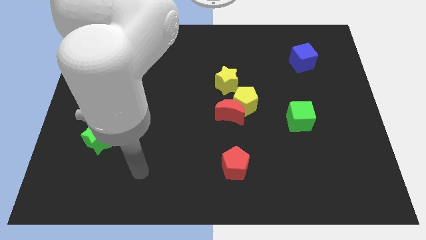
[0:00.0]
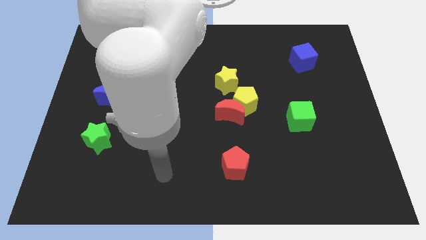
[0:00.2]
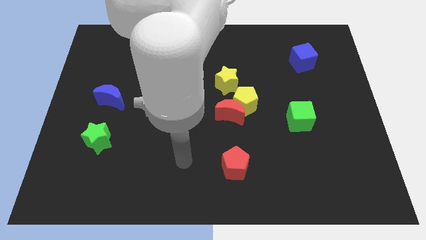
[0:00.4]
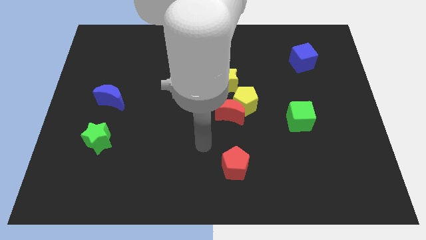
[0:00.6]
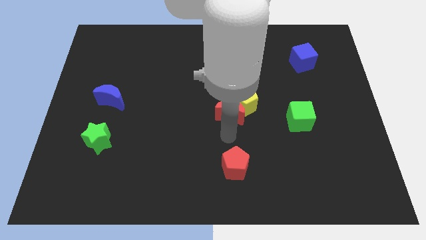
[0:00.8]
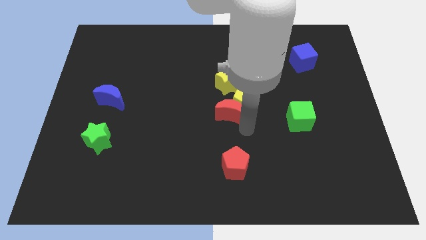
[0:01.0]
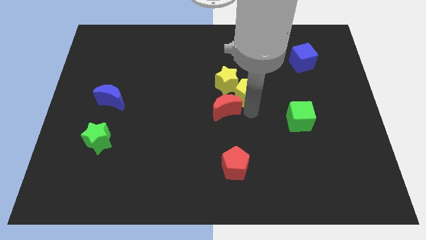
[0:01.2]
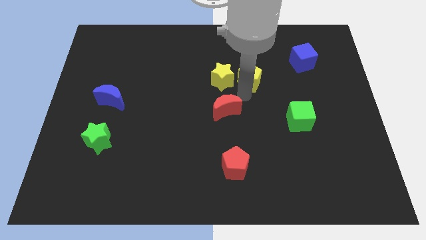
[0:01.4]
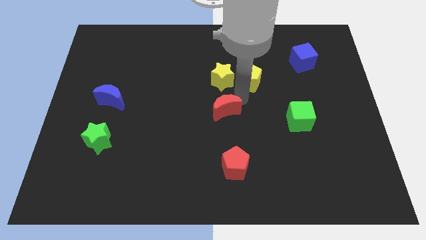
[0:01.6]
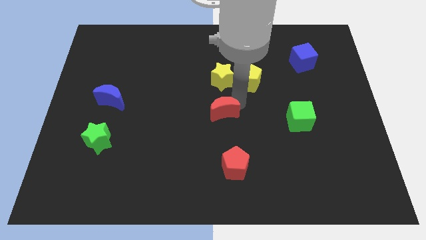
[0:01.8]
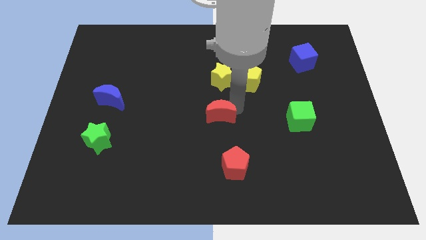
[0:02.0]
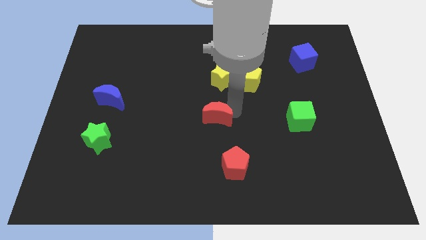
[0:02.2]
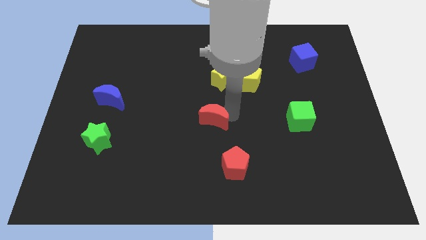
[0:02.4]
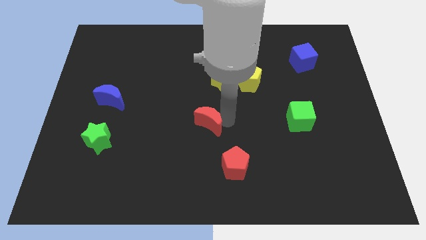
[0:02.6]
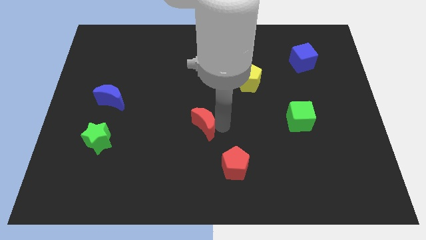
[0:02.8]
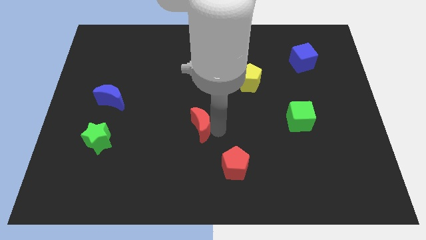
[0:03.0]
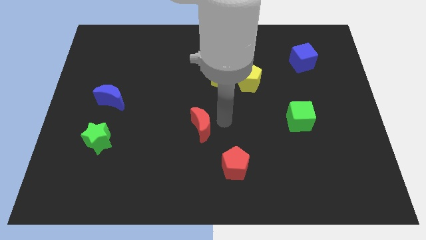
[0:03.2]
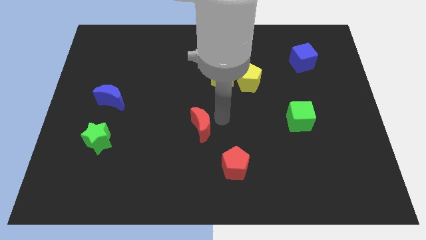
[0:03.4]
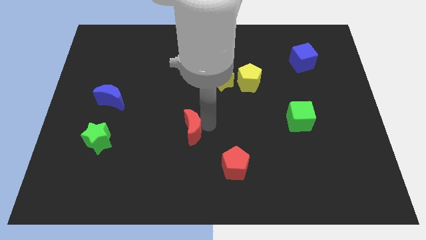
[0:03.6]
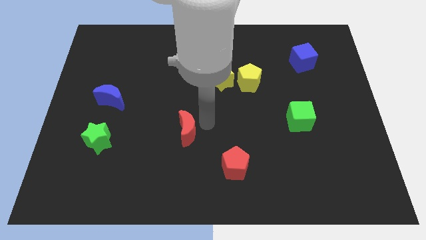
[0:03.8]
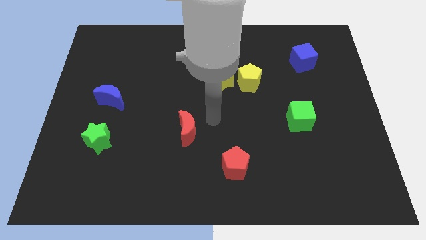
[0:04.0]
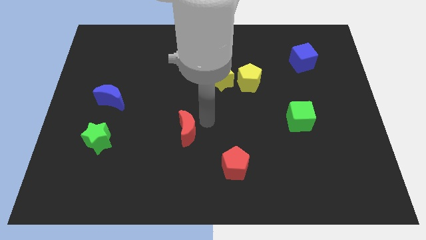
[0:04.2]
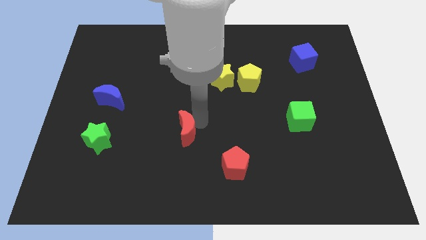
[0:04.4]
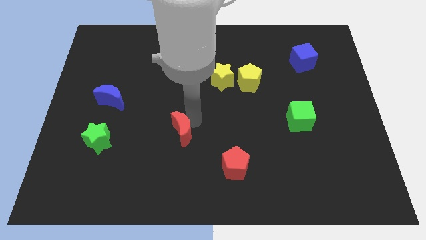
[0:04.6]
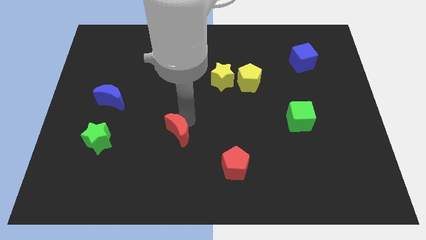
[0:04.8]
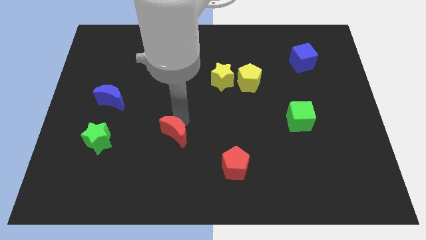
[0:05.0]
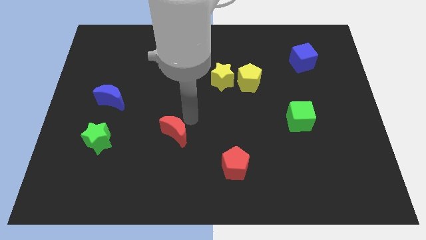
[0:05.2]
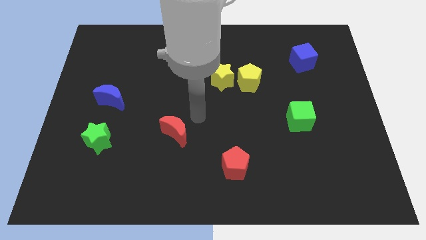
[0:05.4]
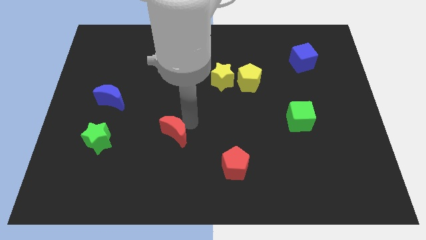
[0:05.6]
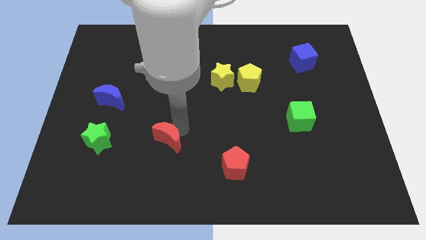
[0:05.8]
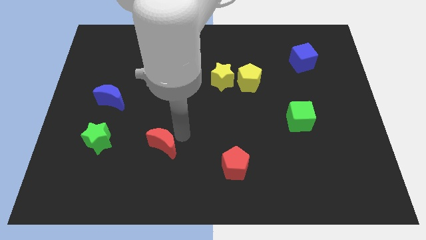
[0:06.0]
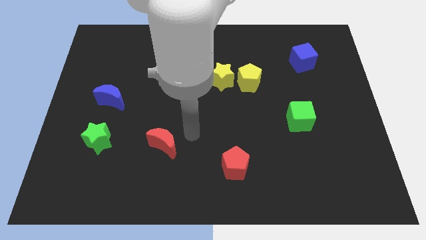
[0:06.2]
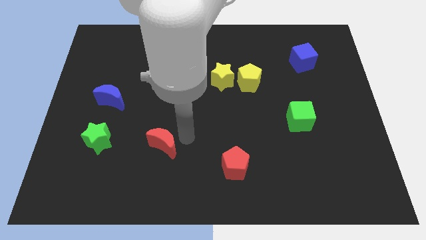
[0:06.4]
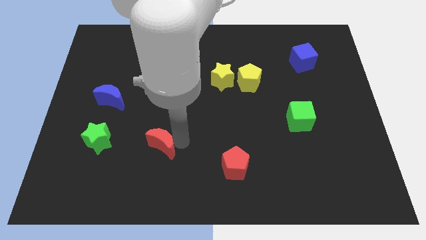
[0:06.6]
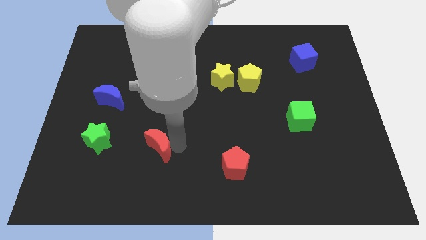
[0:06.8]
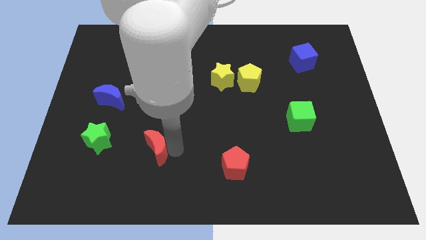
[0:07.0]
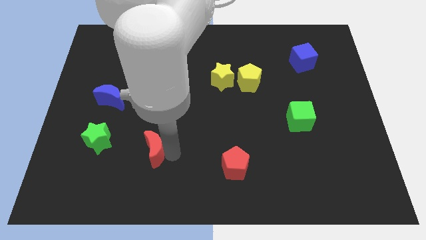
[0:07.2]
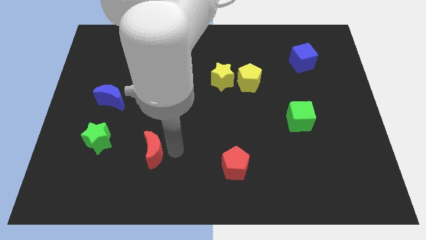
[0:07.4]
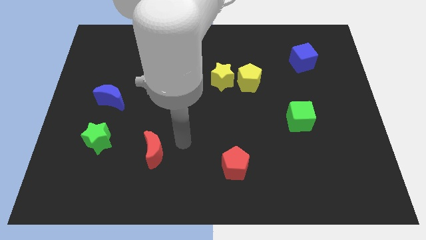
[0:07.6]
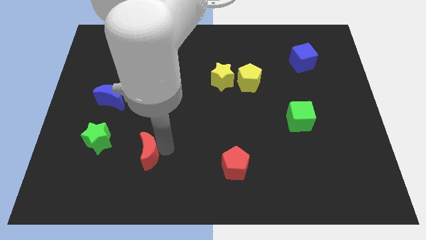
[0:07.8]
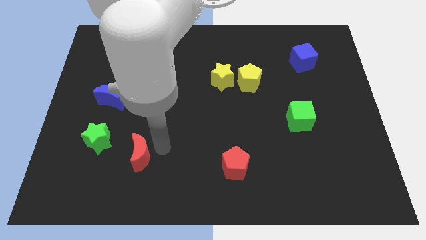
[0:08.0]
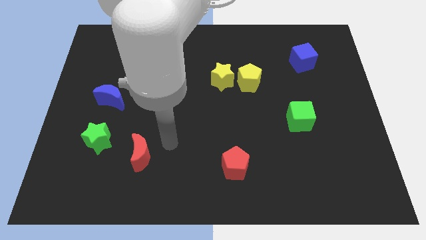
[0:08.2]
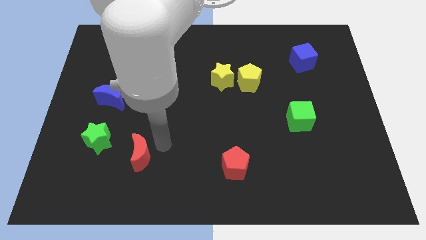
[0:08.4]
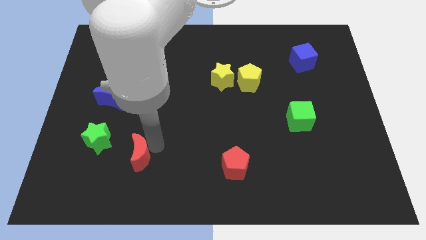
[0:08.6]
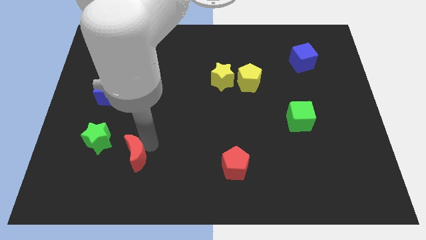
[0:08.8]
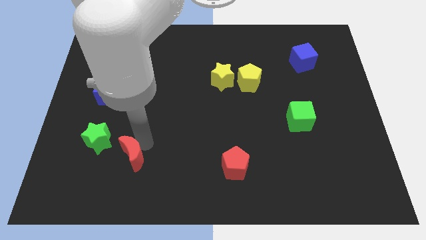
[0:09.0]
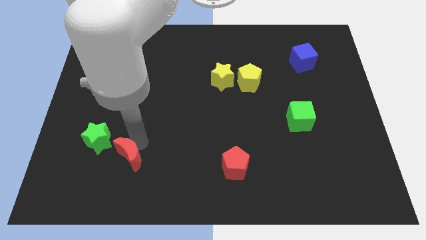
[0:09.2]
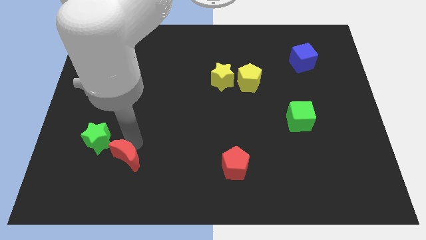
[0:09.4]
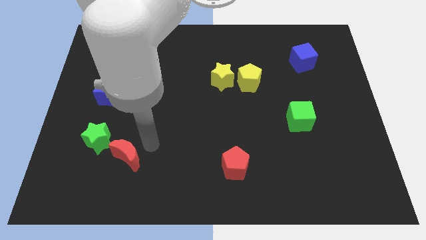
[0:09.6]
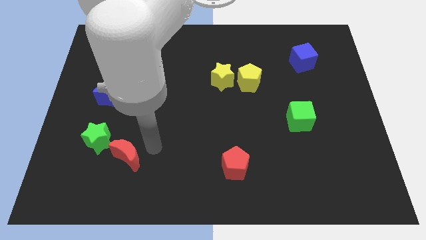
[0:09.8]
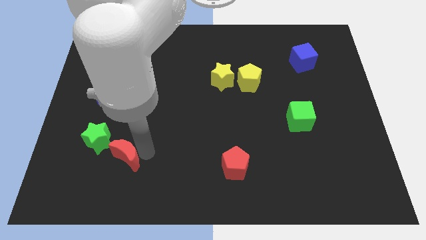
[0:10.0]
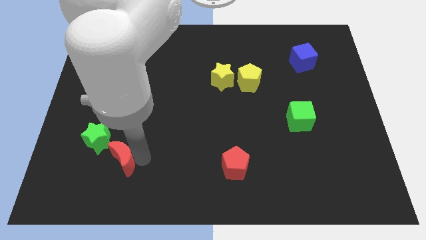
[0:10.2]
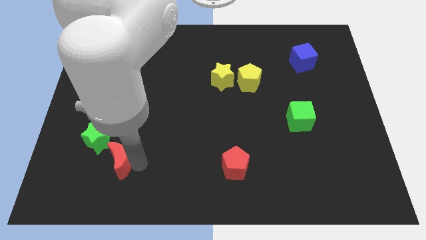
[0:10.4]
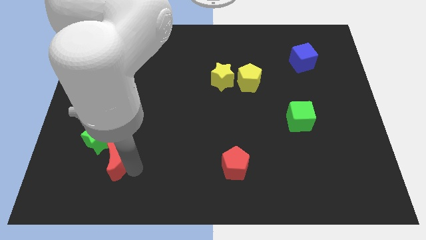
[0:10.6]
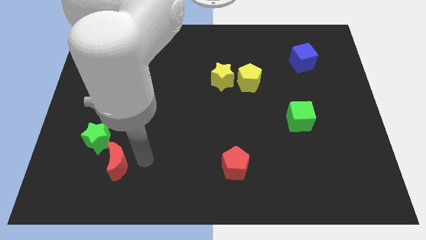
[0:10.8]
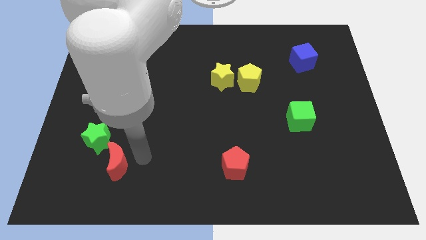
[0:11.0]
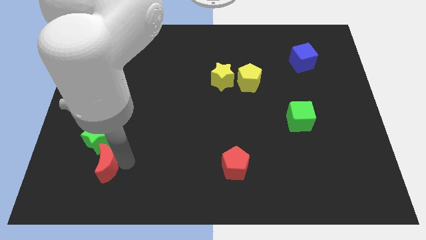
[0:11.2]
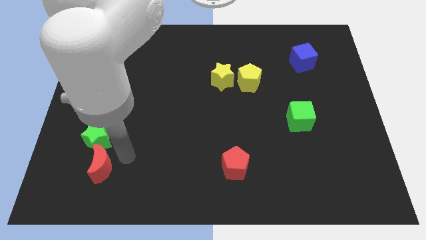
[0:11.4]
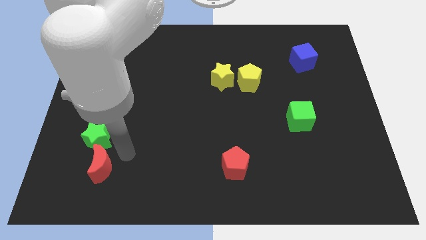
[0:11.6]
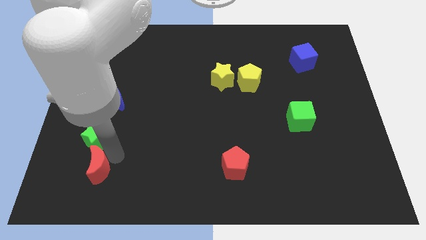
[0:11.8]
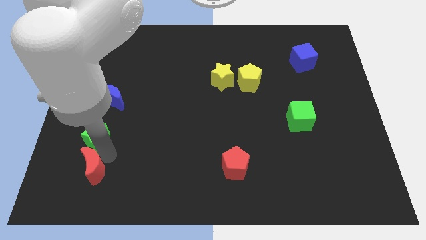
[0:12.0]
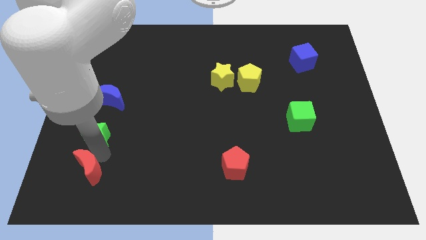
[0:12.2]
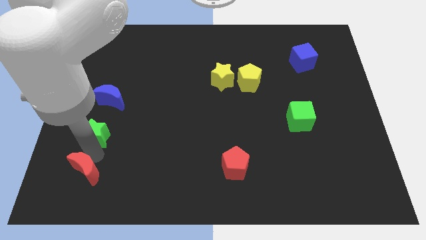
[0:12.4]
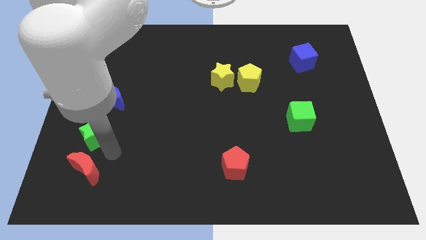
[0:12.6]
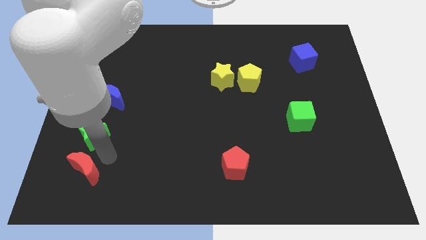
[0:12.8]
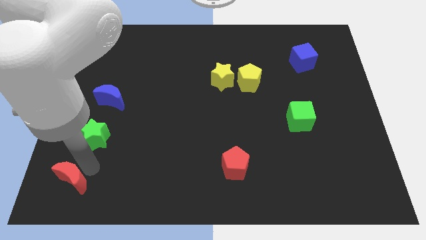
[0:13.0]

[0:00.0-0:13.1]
slide the red moon to the bottom left of the board
